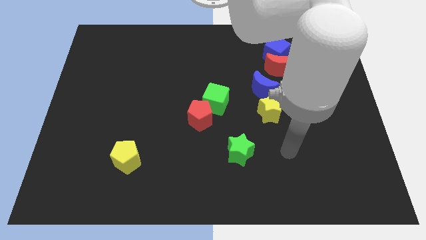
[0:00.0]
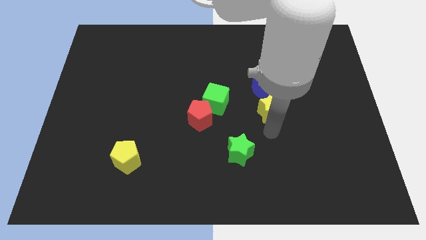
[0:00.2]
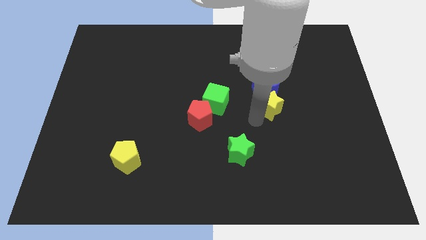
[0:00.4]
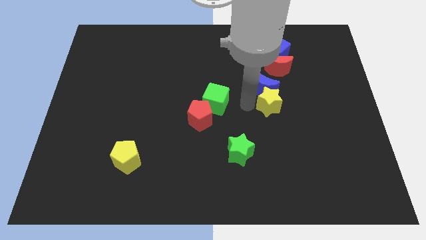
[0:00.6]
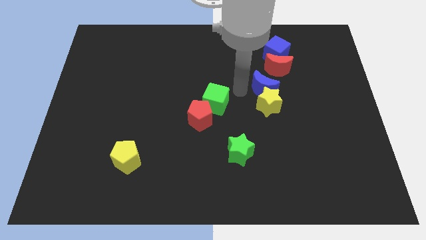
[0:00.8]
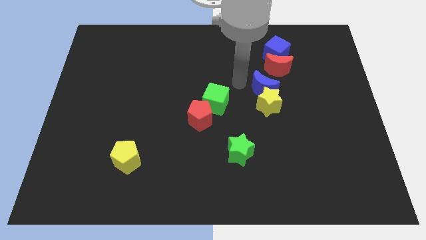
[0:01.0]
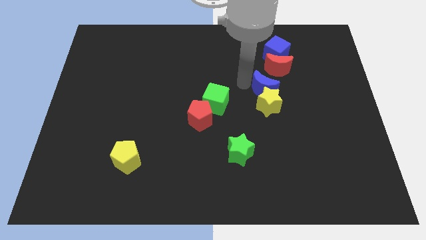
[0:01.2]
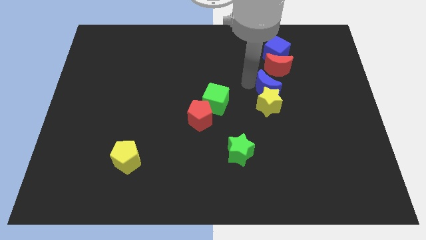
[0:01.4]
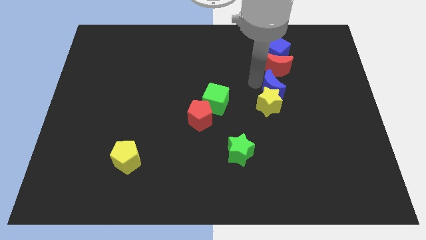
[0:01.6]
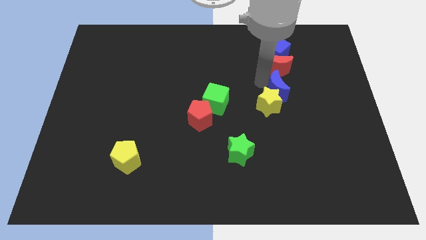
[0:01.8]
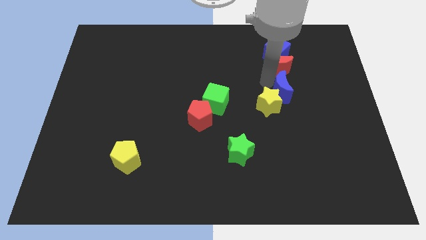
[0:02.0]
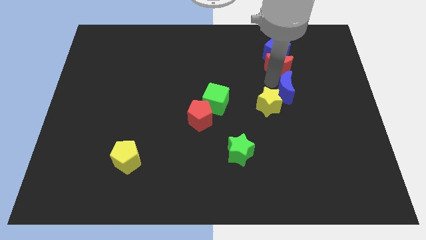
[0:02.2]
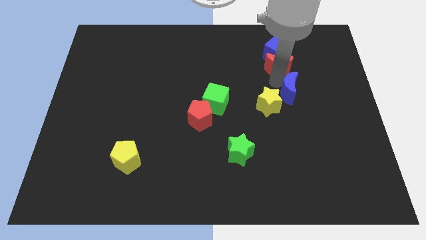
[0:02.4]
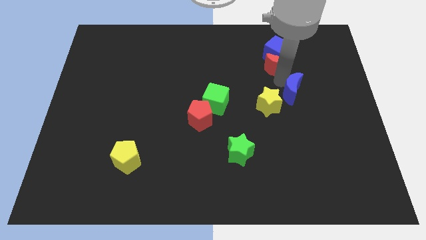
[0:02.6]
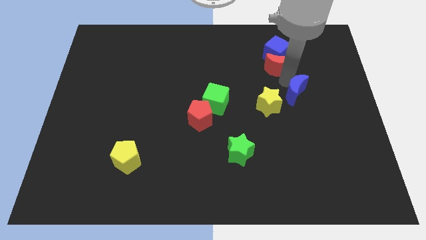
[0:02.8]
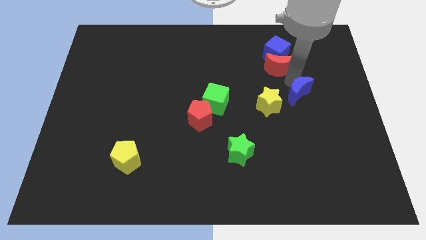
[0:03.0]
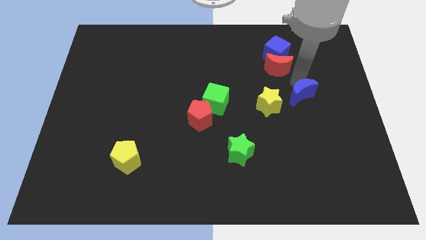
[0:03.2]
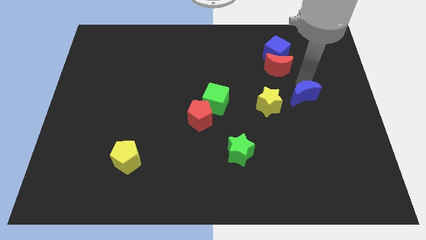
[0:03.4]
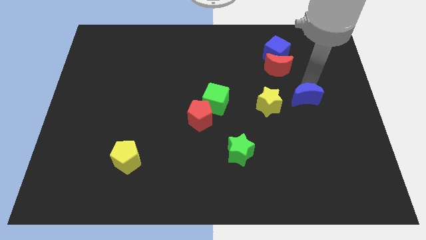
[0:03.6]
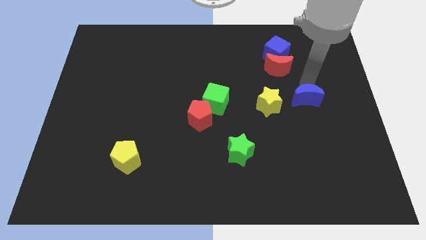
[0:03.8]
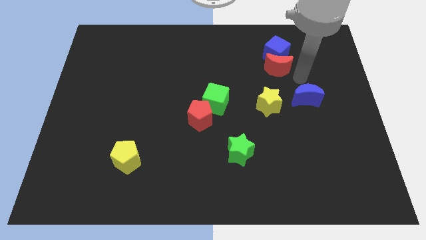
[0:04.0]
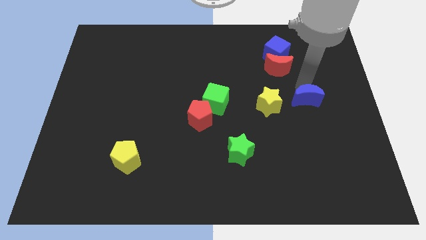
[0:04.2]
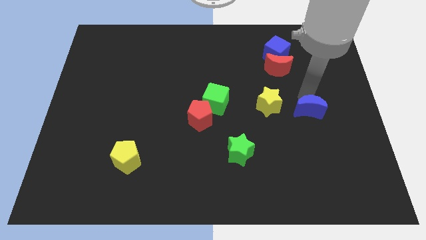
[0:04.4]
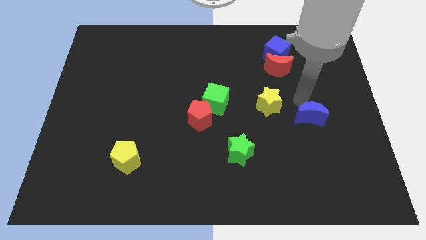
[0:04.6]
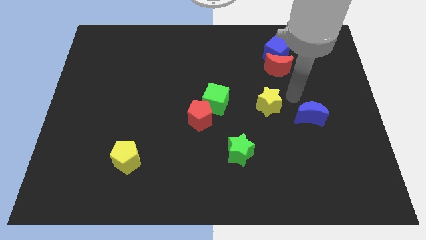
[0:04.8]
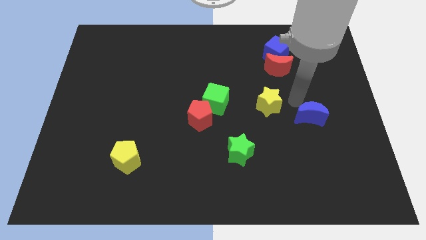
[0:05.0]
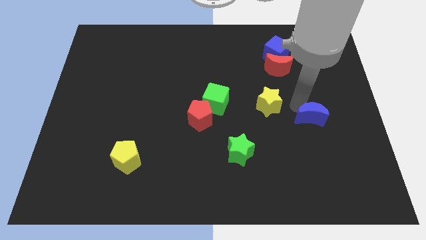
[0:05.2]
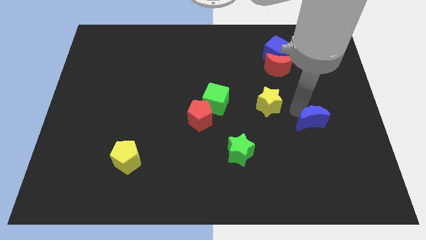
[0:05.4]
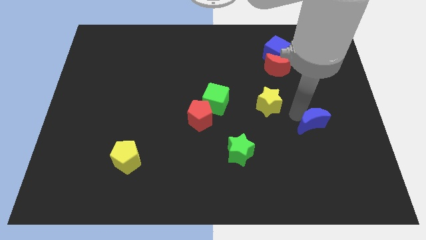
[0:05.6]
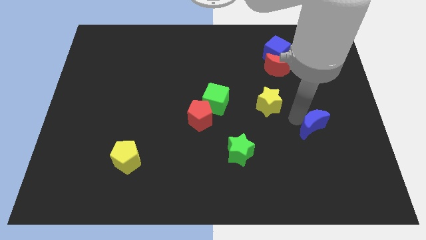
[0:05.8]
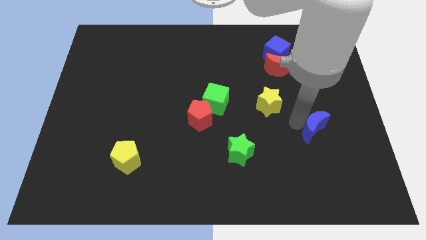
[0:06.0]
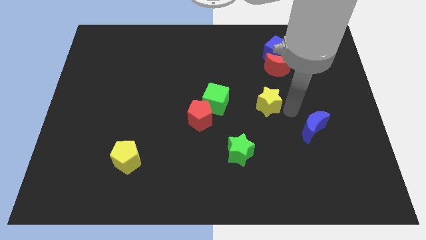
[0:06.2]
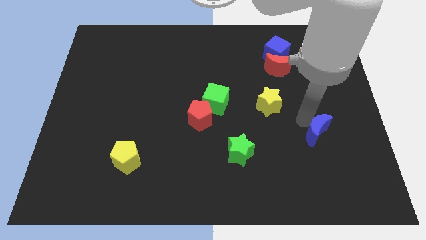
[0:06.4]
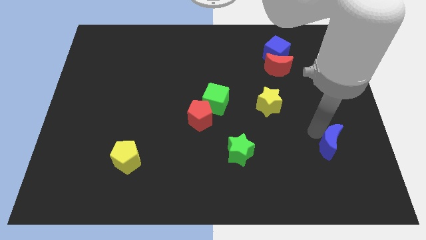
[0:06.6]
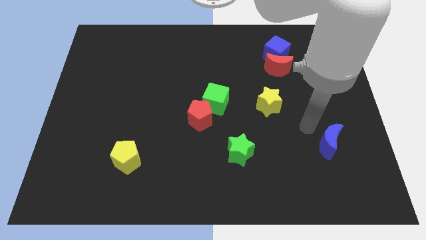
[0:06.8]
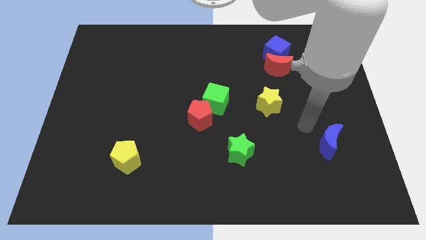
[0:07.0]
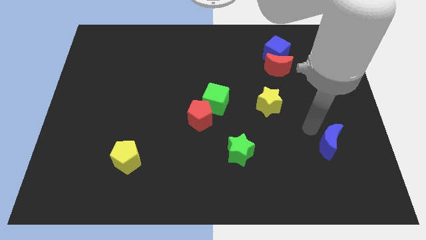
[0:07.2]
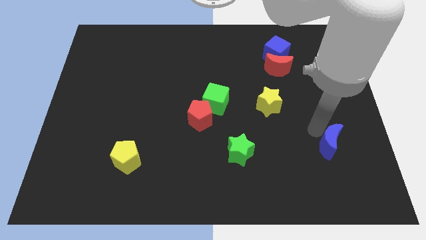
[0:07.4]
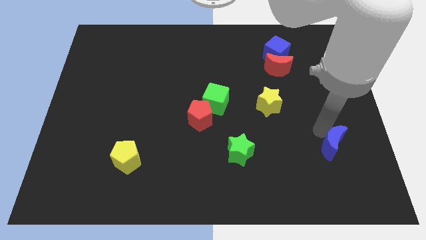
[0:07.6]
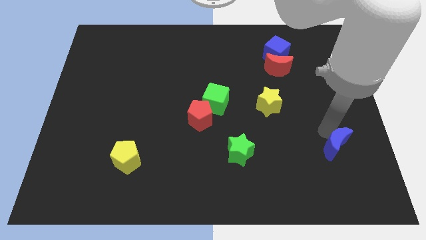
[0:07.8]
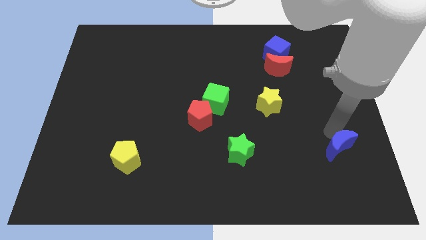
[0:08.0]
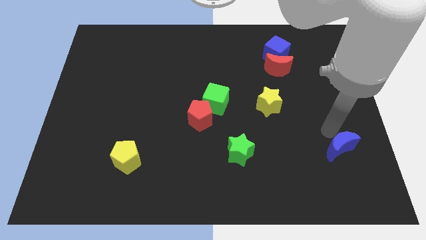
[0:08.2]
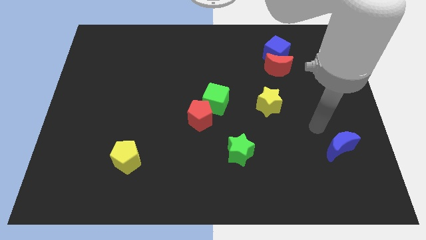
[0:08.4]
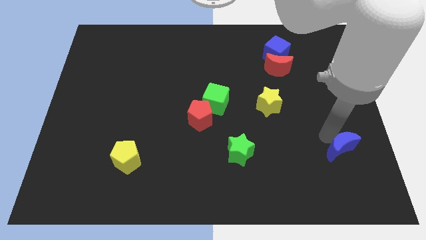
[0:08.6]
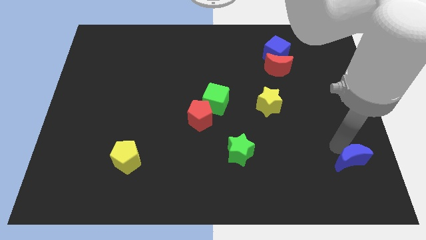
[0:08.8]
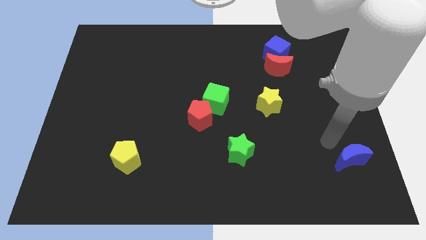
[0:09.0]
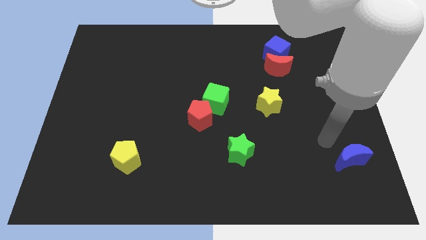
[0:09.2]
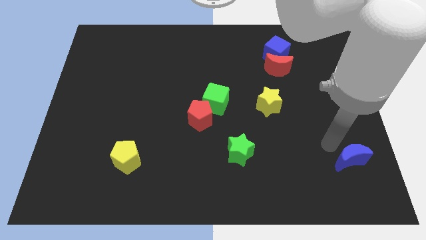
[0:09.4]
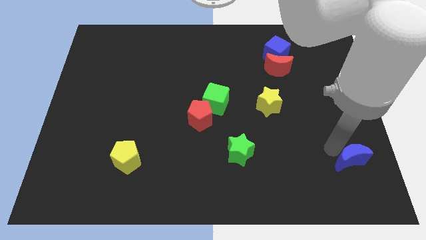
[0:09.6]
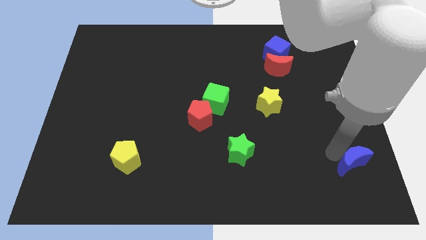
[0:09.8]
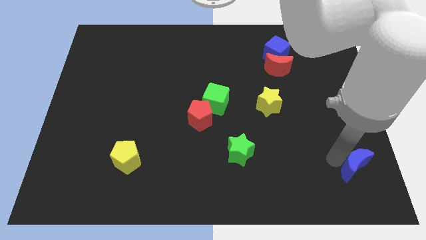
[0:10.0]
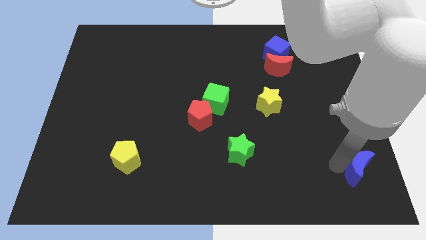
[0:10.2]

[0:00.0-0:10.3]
move the blue moon to the bottom right corner

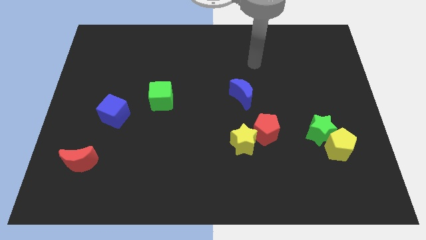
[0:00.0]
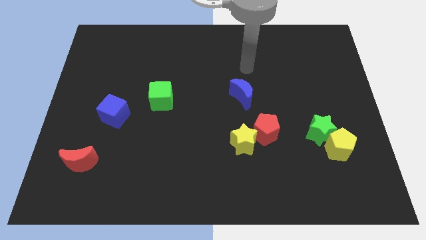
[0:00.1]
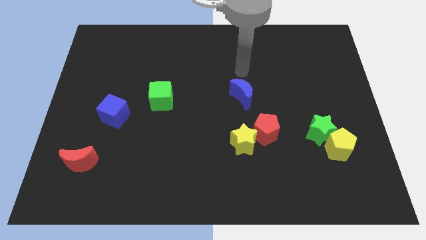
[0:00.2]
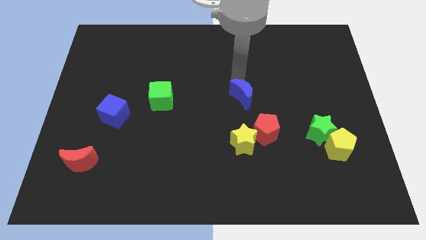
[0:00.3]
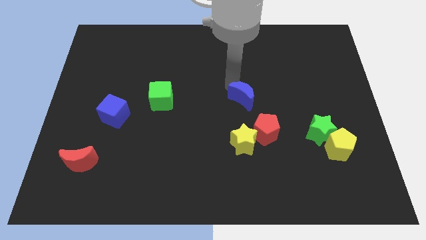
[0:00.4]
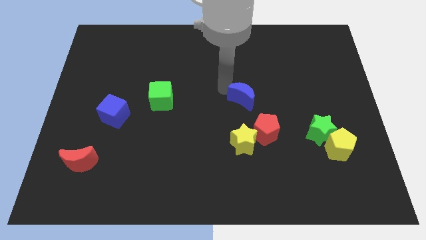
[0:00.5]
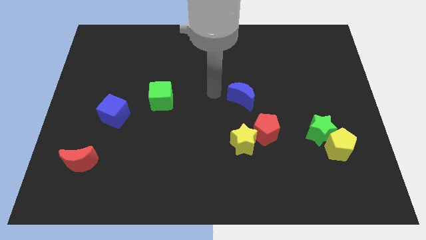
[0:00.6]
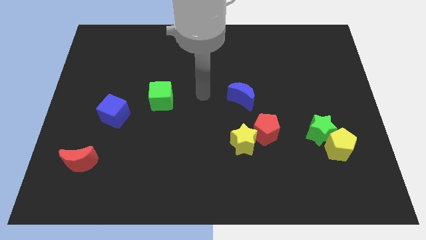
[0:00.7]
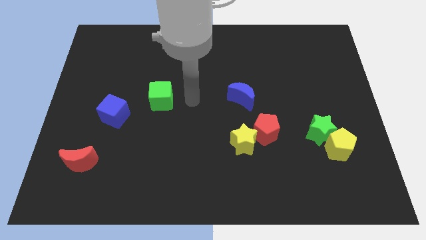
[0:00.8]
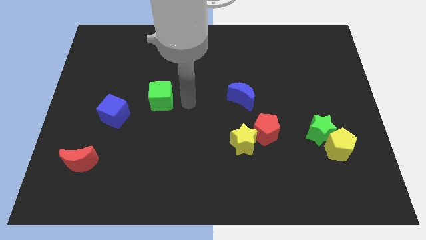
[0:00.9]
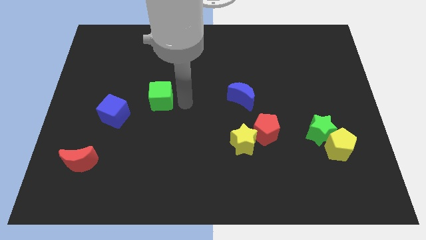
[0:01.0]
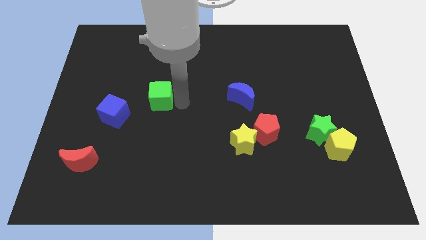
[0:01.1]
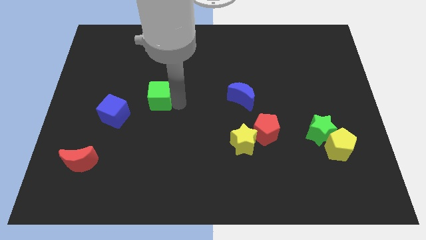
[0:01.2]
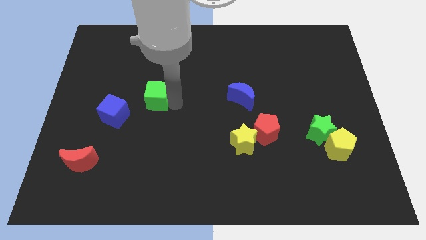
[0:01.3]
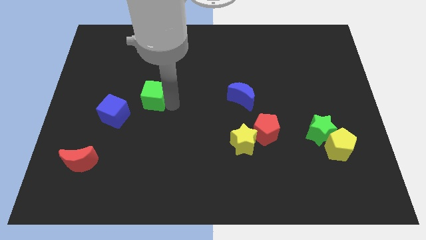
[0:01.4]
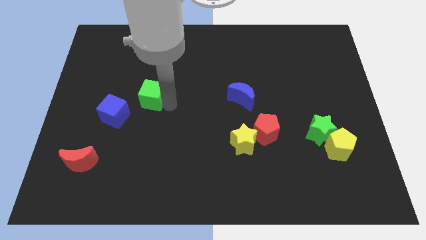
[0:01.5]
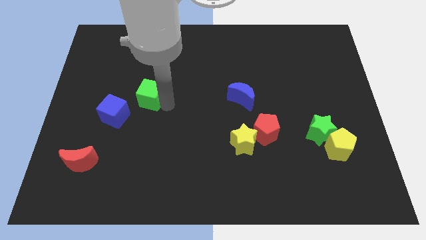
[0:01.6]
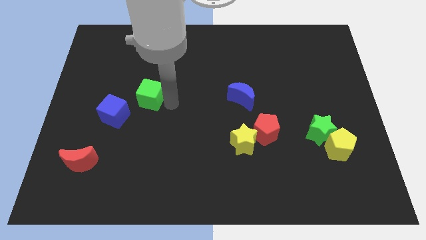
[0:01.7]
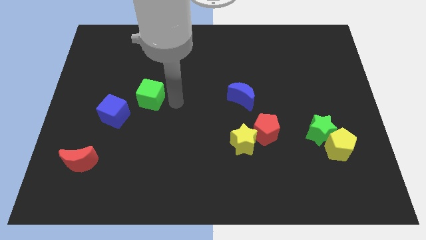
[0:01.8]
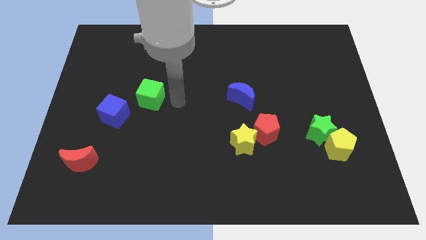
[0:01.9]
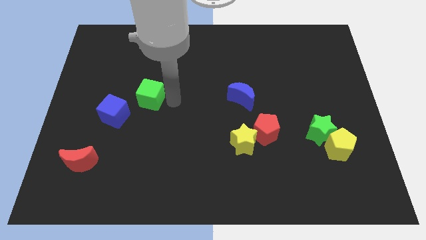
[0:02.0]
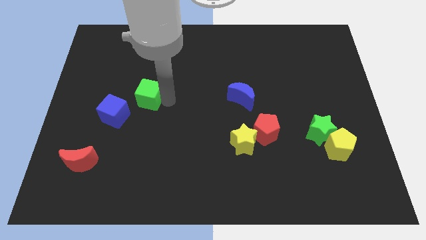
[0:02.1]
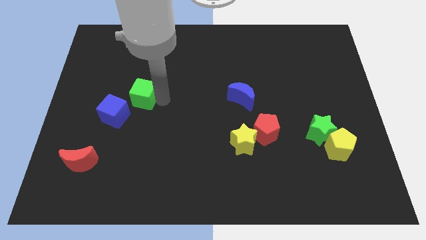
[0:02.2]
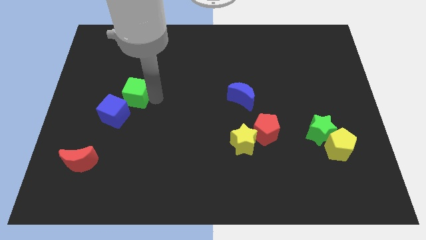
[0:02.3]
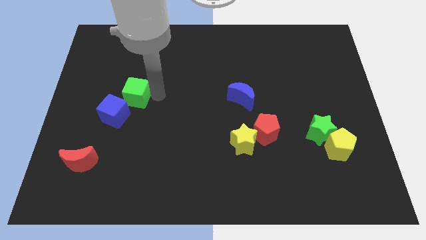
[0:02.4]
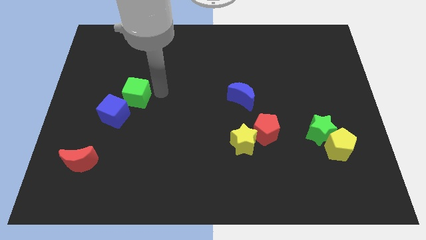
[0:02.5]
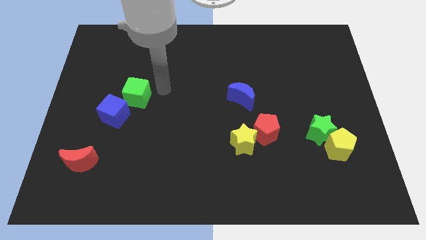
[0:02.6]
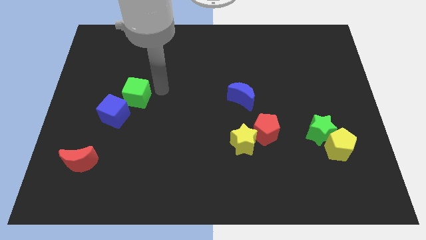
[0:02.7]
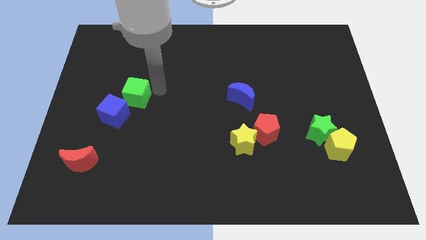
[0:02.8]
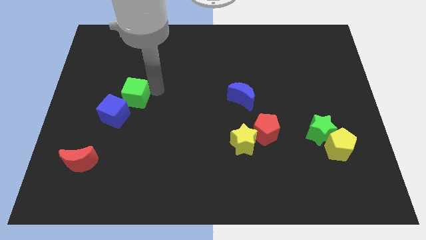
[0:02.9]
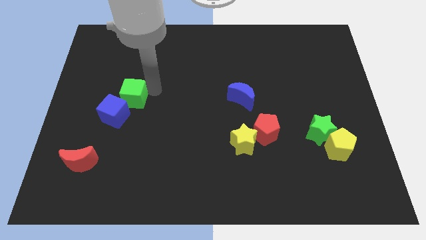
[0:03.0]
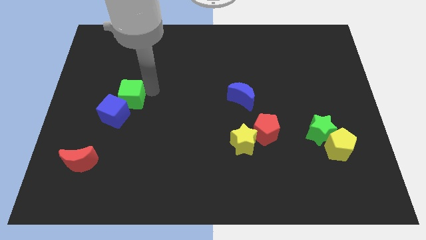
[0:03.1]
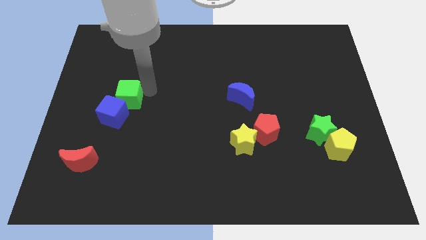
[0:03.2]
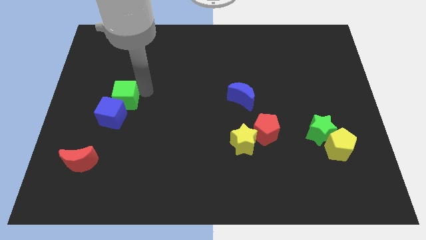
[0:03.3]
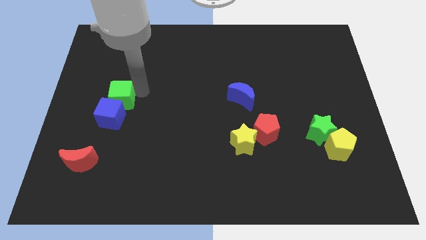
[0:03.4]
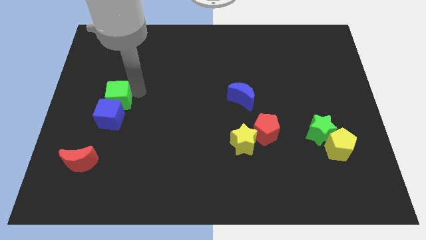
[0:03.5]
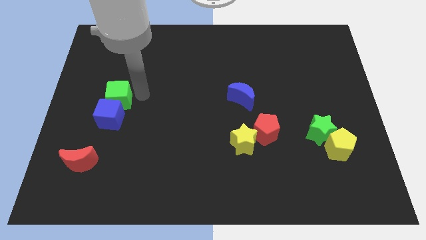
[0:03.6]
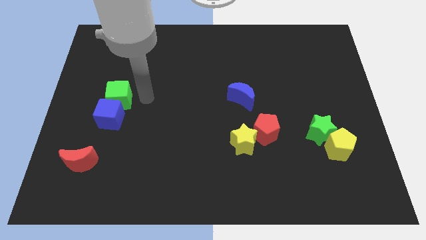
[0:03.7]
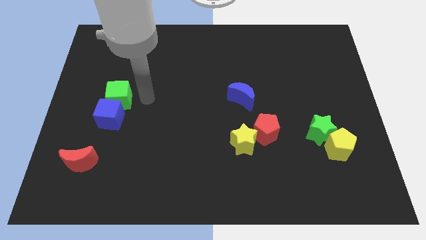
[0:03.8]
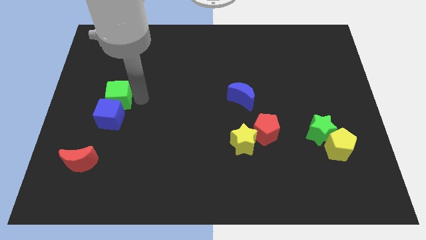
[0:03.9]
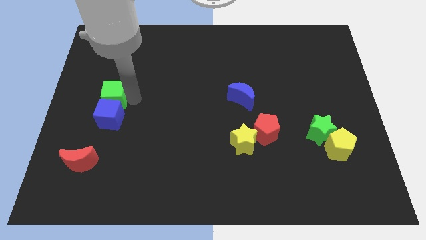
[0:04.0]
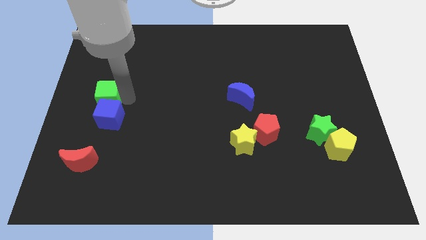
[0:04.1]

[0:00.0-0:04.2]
move the green cube to the left side of the board
